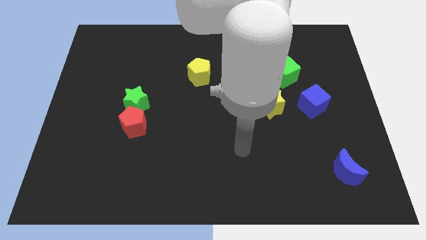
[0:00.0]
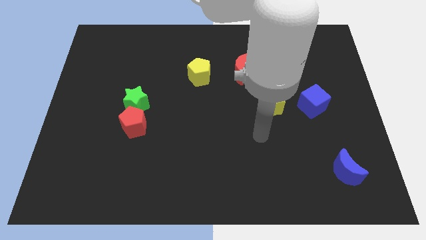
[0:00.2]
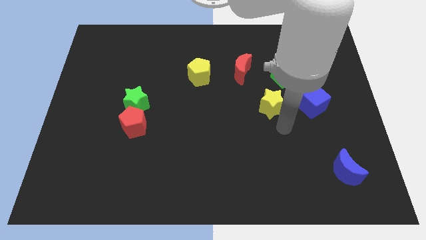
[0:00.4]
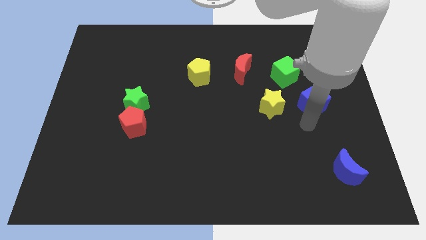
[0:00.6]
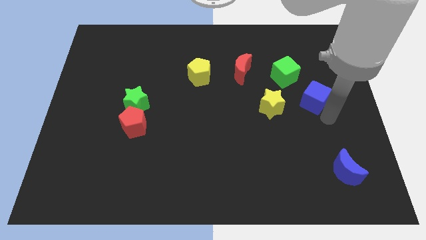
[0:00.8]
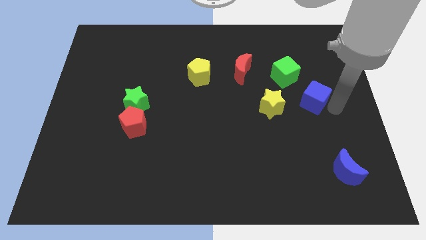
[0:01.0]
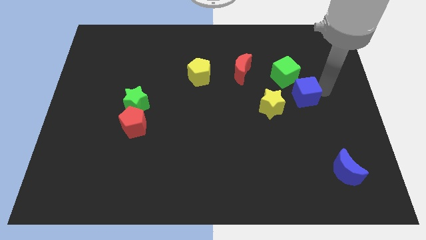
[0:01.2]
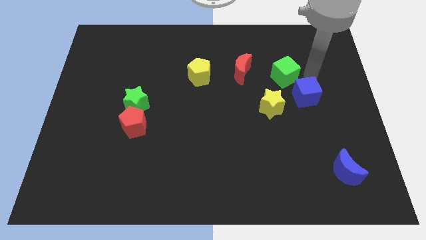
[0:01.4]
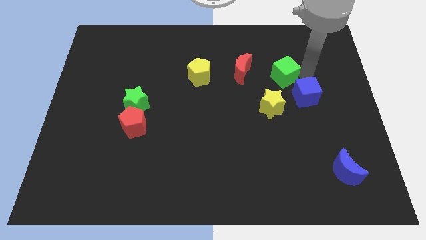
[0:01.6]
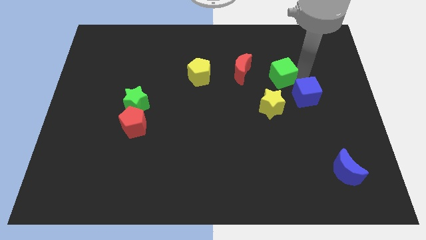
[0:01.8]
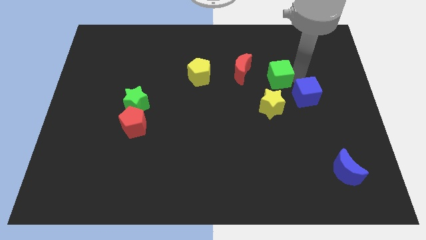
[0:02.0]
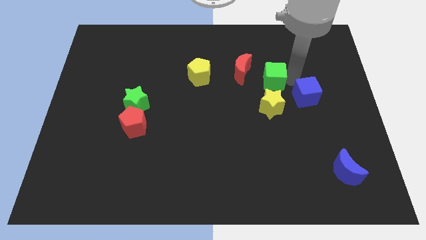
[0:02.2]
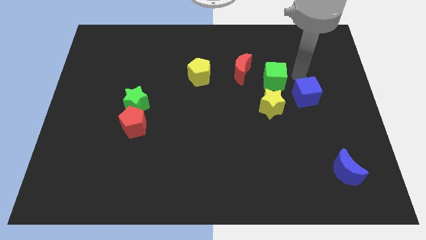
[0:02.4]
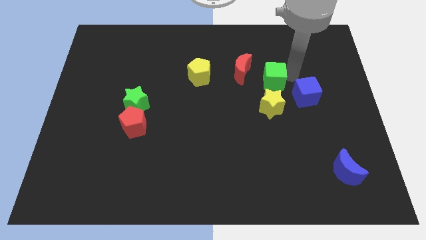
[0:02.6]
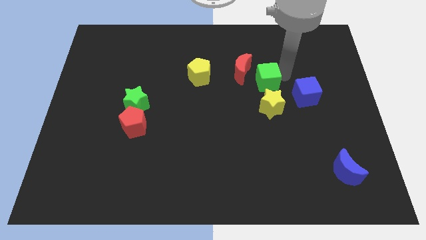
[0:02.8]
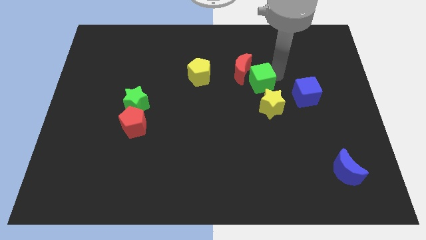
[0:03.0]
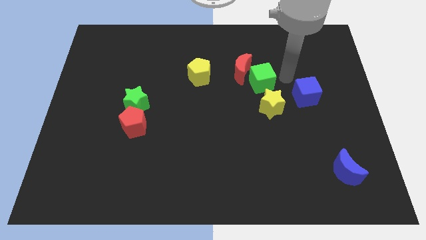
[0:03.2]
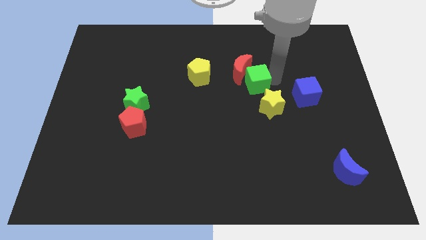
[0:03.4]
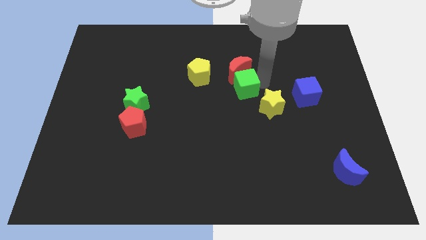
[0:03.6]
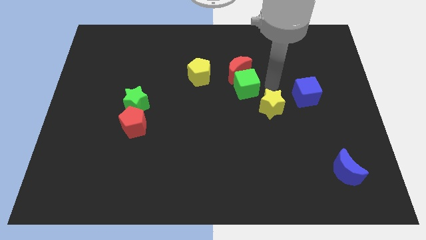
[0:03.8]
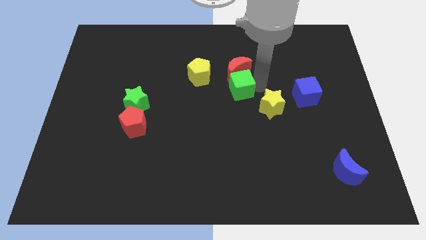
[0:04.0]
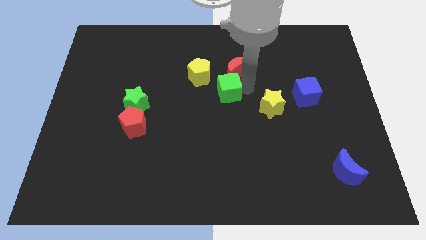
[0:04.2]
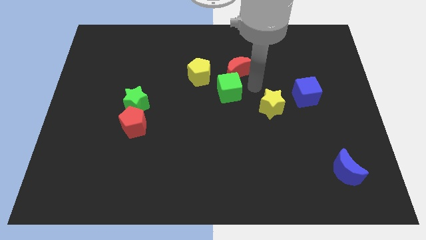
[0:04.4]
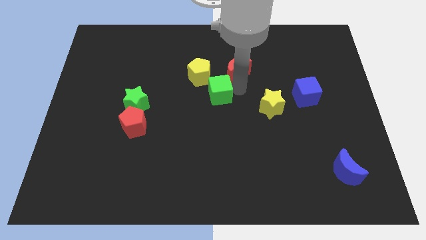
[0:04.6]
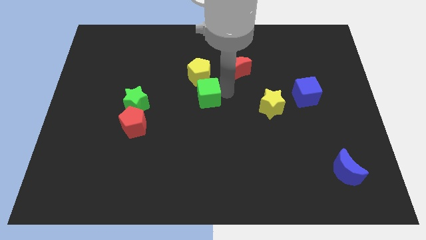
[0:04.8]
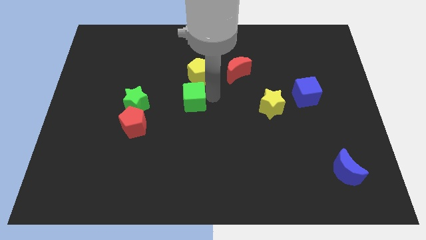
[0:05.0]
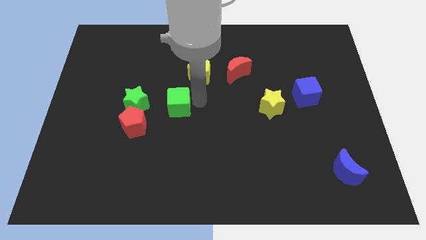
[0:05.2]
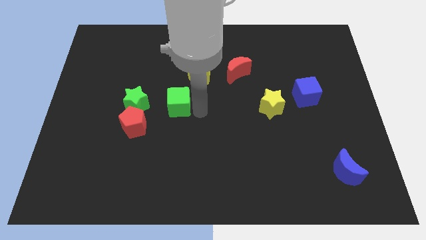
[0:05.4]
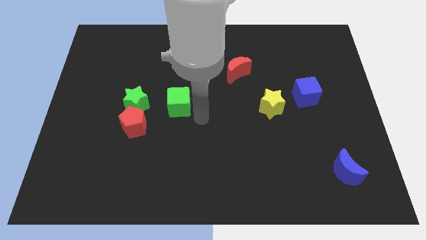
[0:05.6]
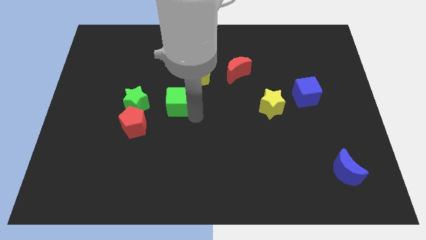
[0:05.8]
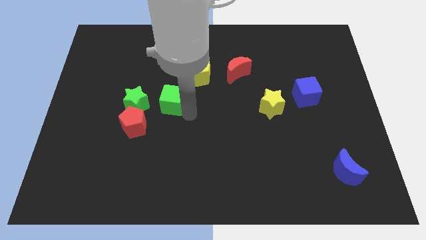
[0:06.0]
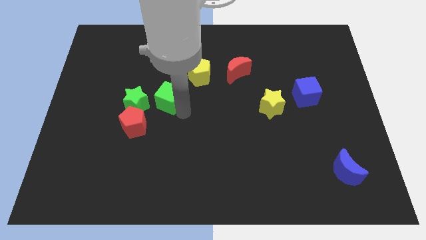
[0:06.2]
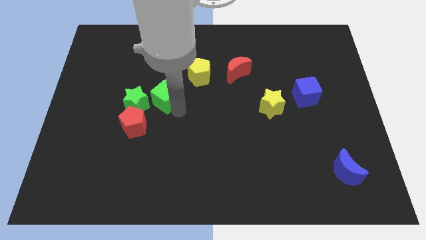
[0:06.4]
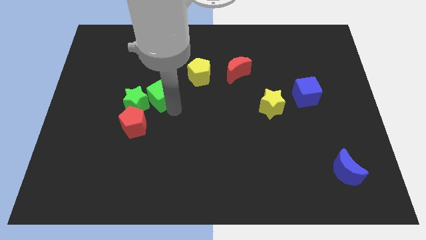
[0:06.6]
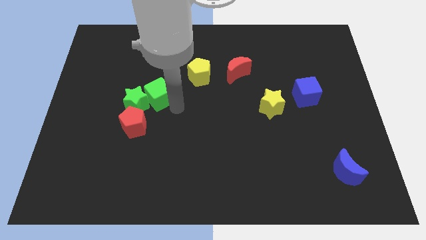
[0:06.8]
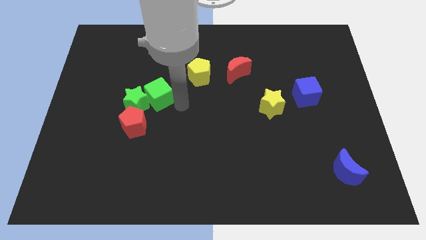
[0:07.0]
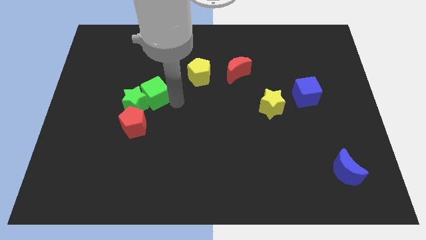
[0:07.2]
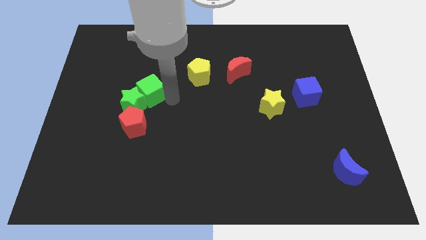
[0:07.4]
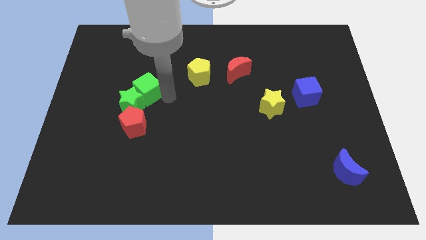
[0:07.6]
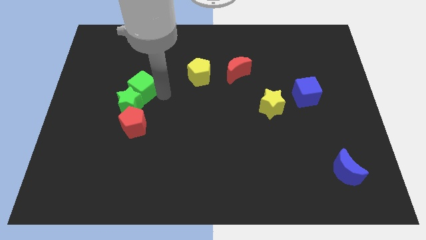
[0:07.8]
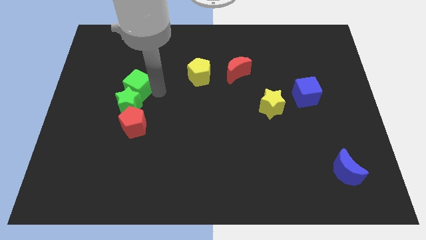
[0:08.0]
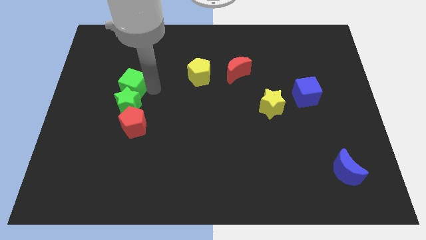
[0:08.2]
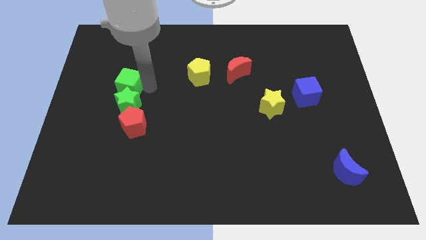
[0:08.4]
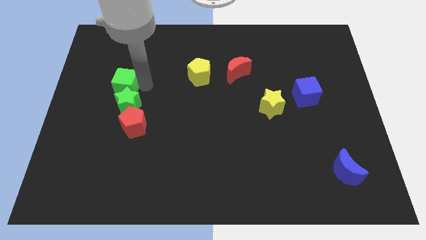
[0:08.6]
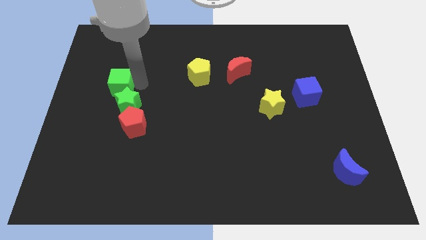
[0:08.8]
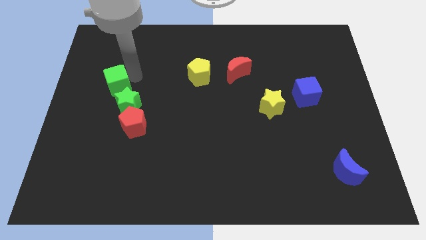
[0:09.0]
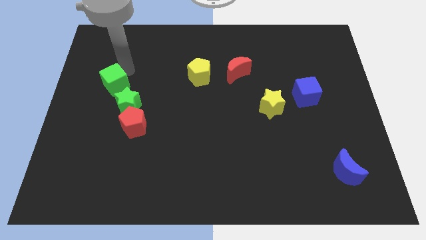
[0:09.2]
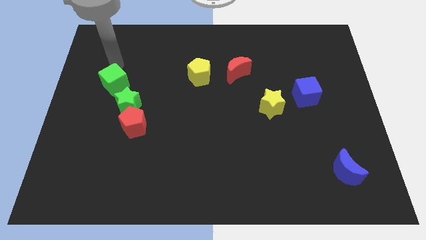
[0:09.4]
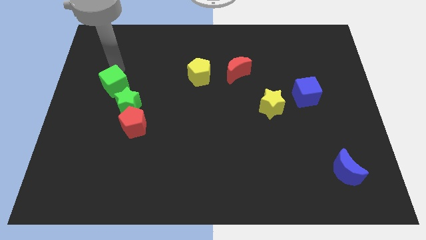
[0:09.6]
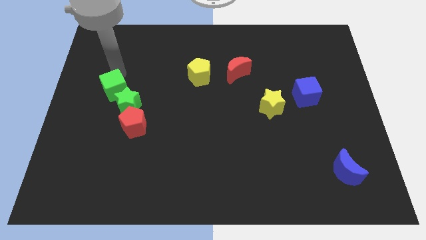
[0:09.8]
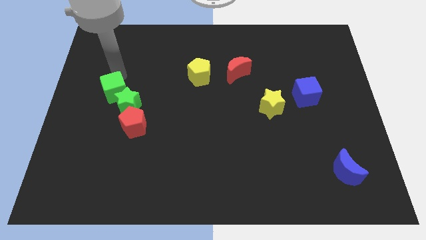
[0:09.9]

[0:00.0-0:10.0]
move the green cube to the top left of the red pentagon

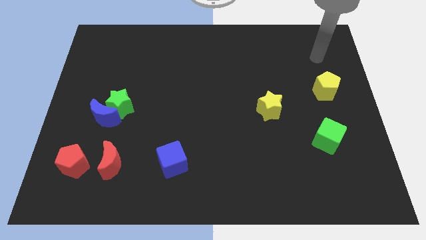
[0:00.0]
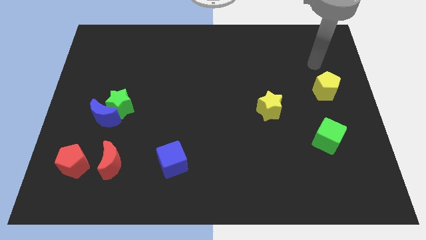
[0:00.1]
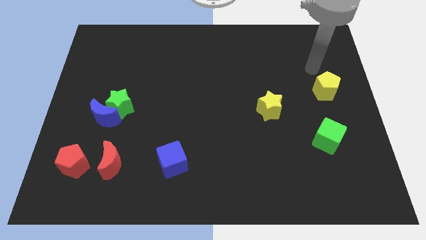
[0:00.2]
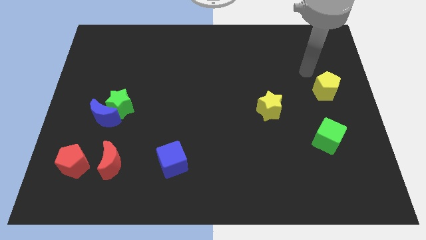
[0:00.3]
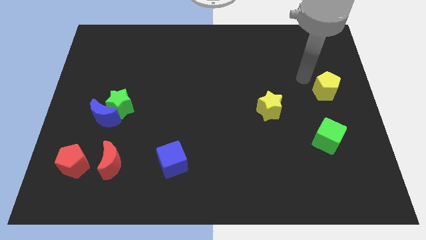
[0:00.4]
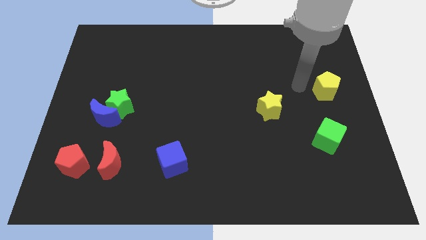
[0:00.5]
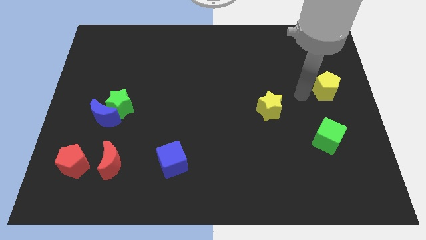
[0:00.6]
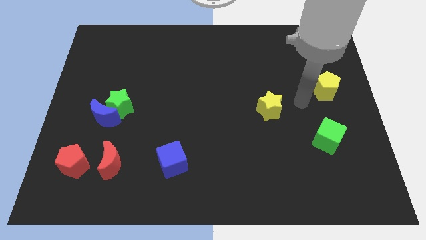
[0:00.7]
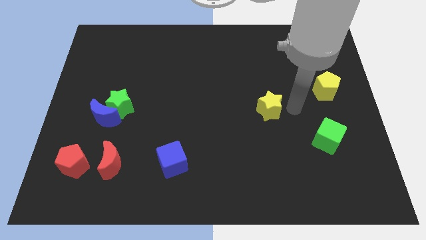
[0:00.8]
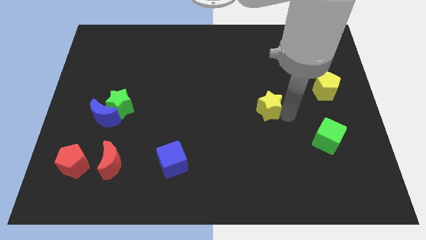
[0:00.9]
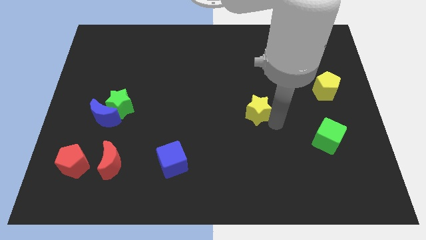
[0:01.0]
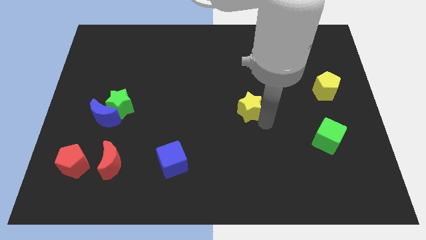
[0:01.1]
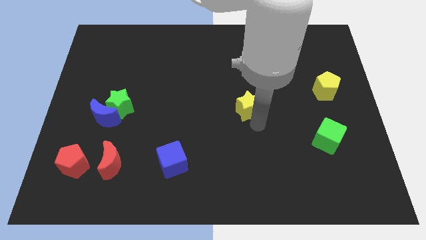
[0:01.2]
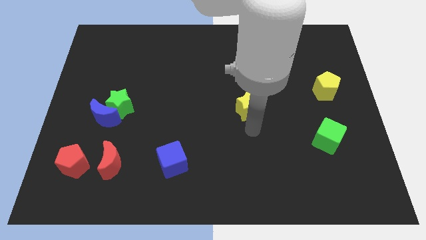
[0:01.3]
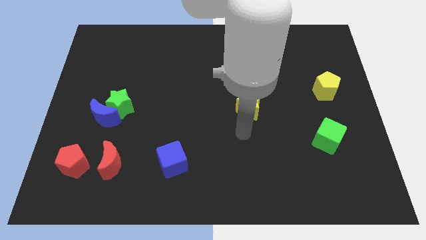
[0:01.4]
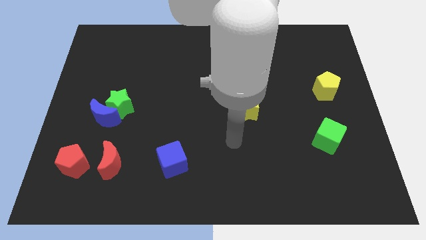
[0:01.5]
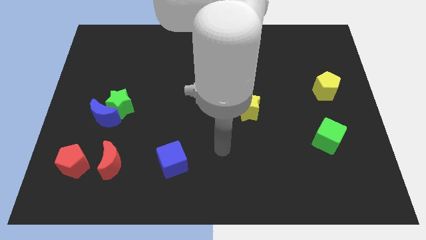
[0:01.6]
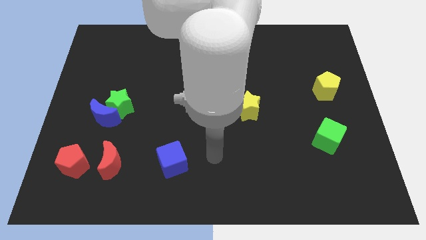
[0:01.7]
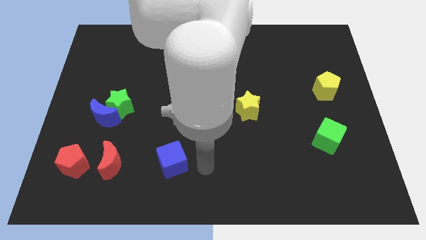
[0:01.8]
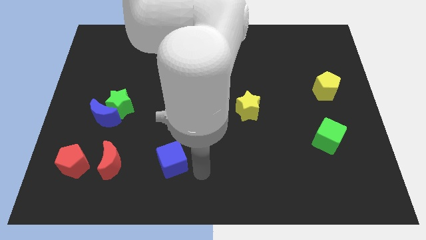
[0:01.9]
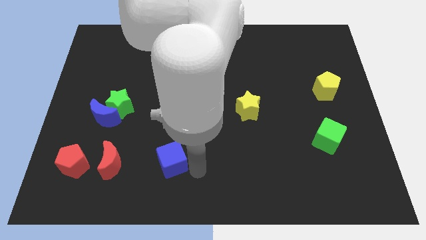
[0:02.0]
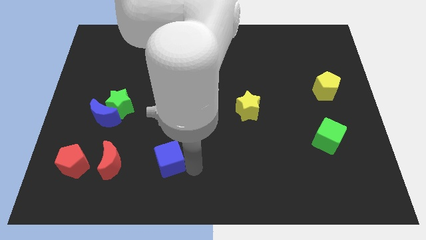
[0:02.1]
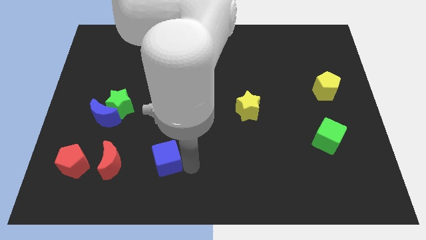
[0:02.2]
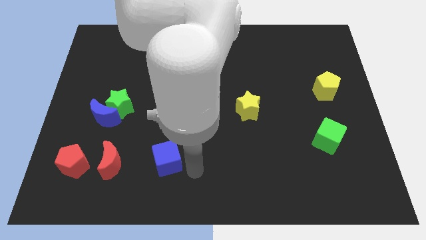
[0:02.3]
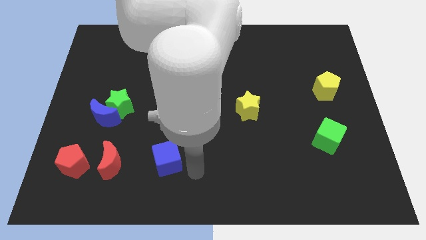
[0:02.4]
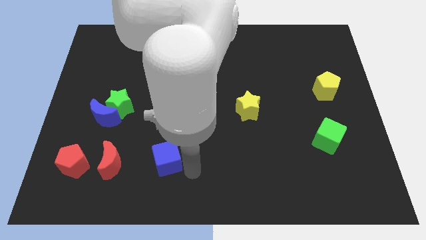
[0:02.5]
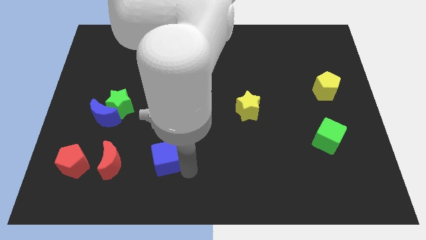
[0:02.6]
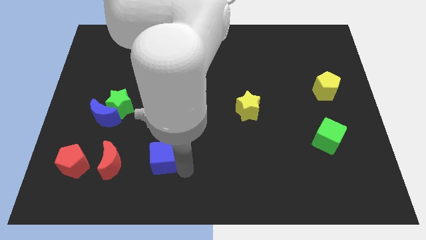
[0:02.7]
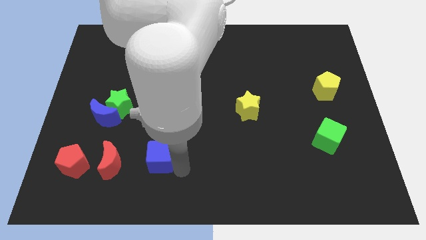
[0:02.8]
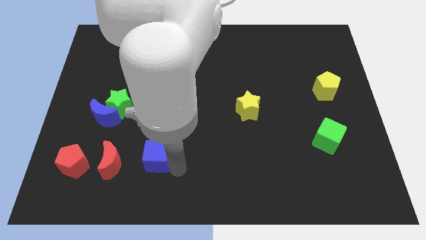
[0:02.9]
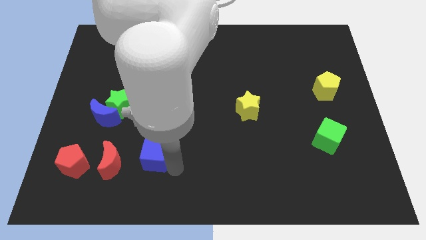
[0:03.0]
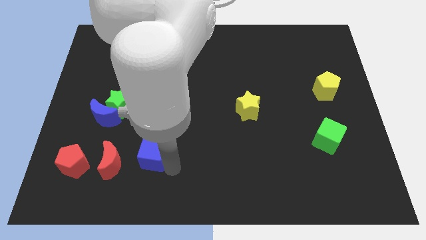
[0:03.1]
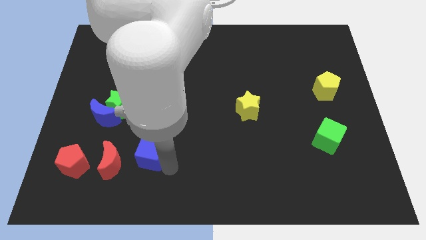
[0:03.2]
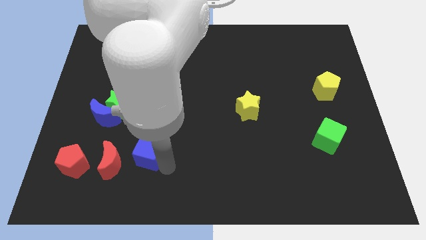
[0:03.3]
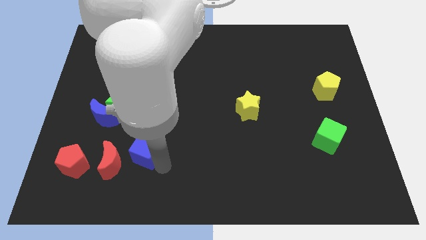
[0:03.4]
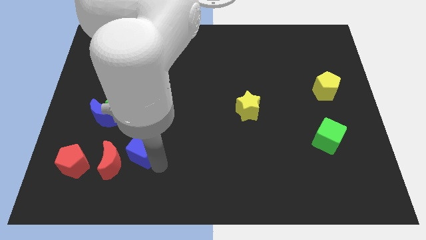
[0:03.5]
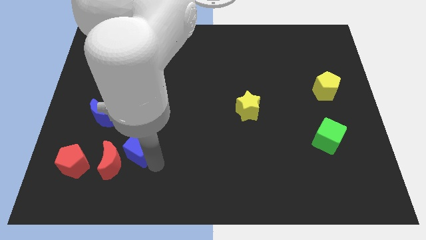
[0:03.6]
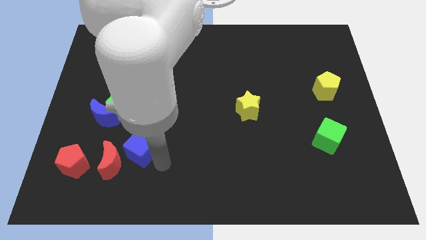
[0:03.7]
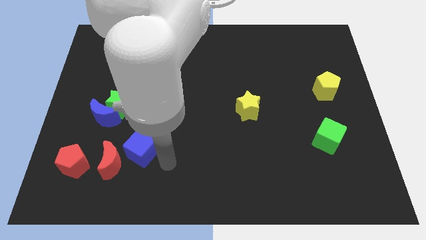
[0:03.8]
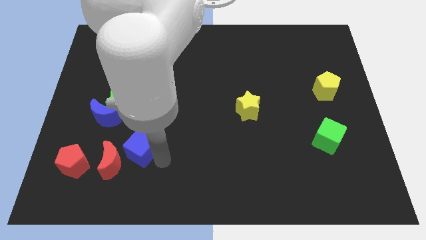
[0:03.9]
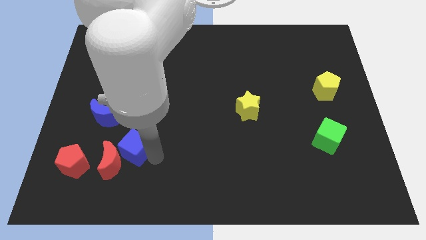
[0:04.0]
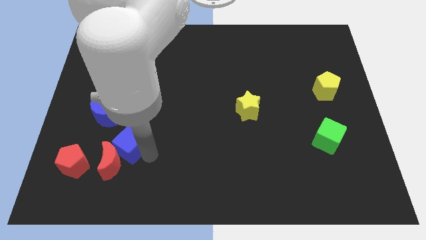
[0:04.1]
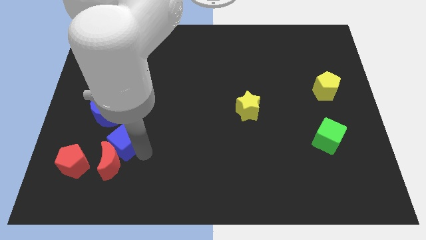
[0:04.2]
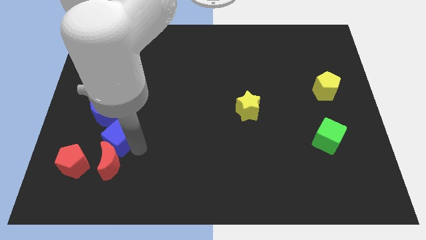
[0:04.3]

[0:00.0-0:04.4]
move the blue cube to the bottom side of the blue moon
